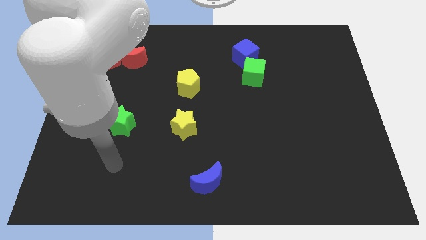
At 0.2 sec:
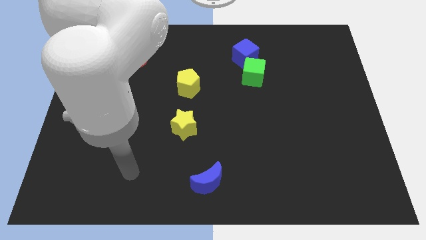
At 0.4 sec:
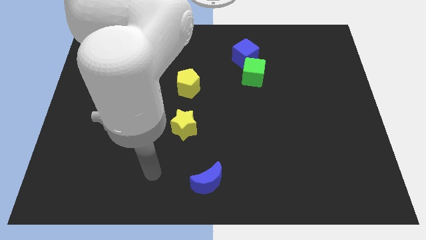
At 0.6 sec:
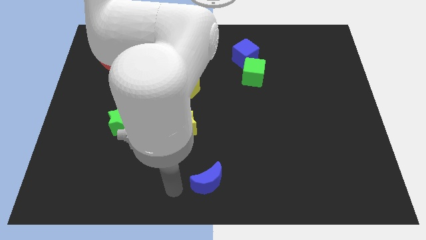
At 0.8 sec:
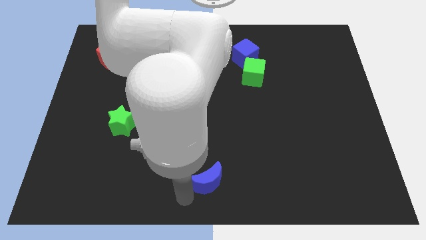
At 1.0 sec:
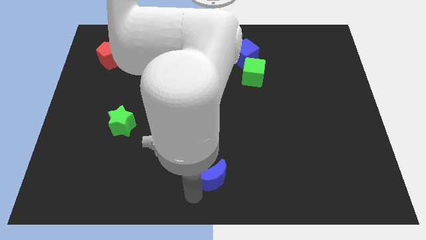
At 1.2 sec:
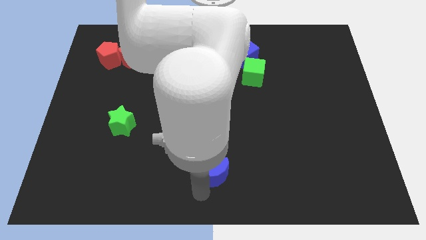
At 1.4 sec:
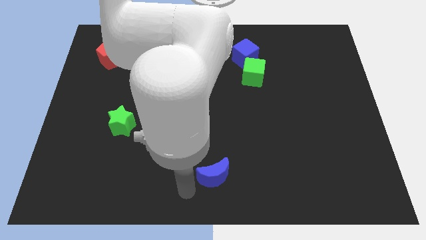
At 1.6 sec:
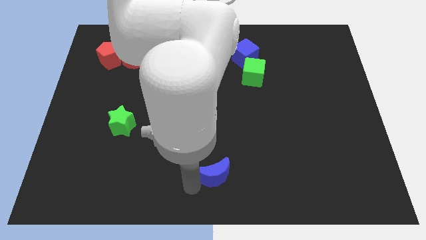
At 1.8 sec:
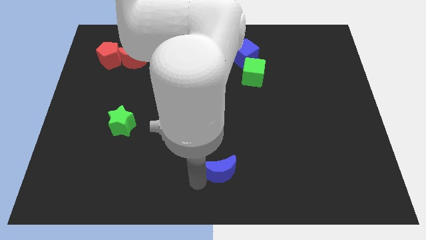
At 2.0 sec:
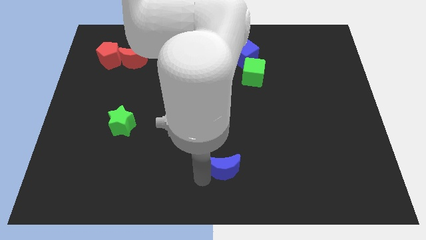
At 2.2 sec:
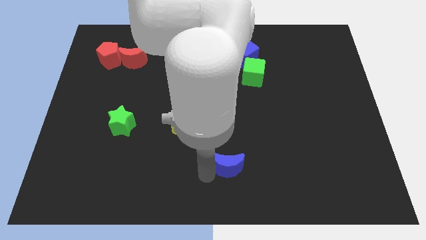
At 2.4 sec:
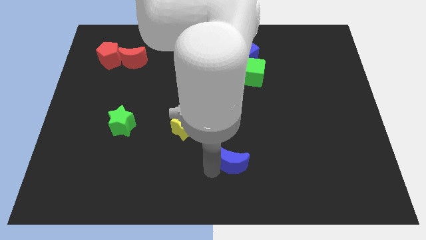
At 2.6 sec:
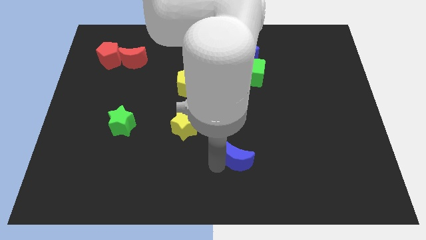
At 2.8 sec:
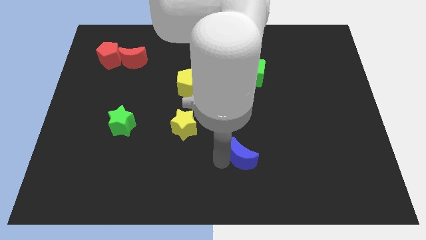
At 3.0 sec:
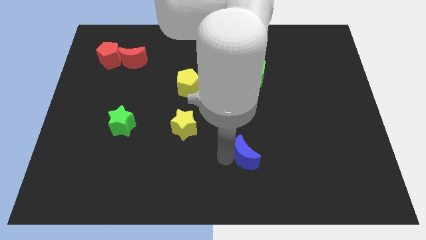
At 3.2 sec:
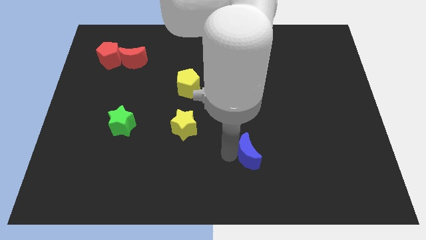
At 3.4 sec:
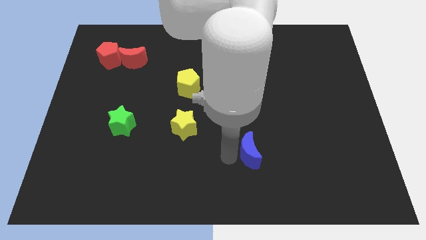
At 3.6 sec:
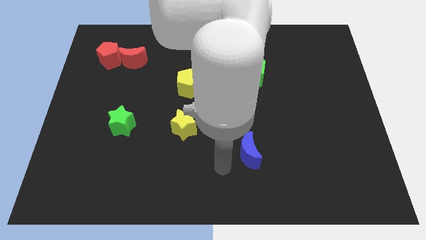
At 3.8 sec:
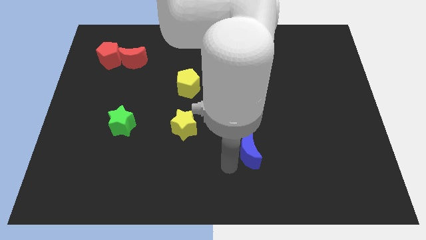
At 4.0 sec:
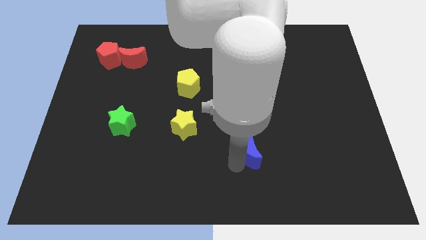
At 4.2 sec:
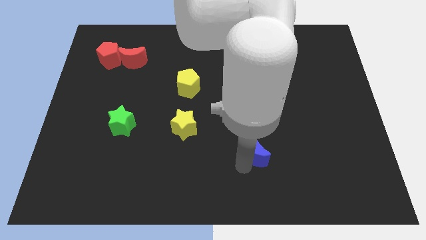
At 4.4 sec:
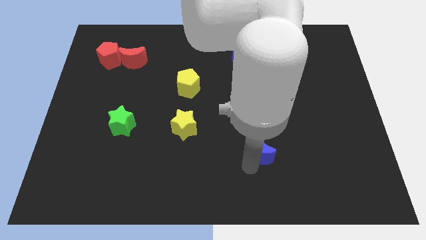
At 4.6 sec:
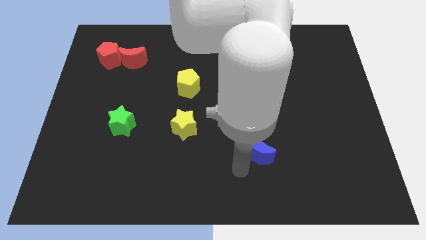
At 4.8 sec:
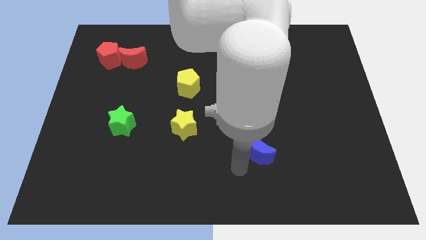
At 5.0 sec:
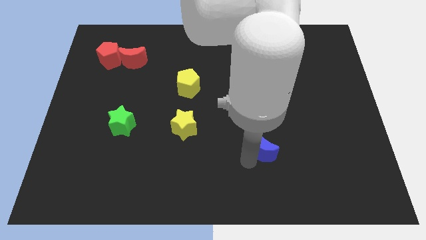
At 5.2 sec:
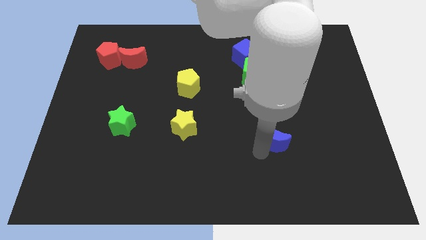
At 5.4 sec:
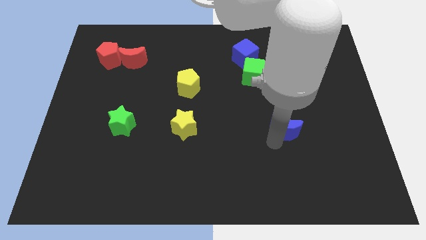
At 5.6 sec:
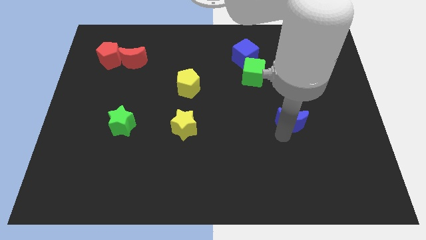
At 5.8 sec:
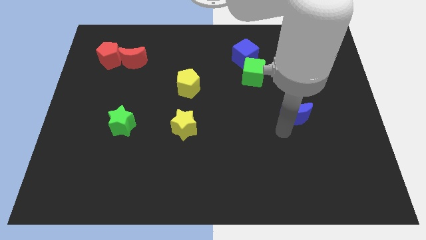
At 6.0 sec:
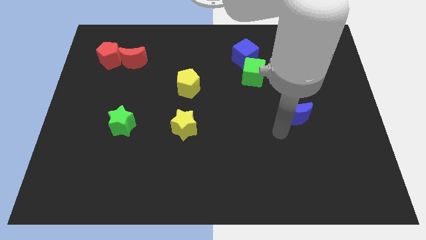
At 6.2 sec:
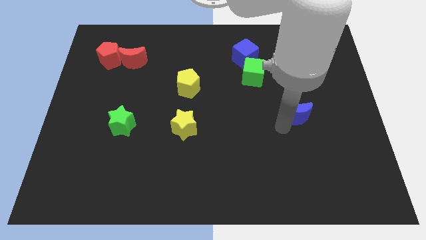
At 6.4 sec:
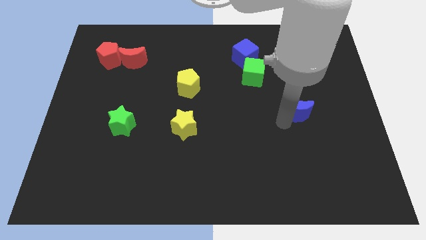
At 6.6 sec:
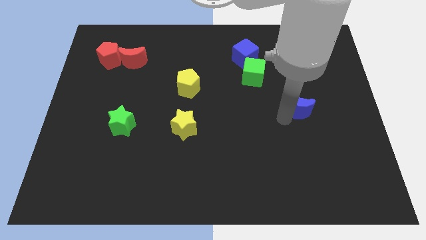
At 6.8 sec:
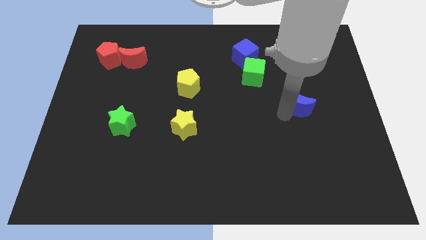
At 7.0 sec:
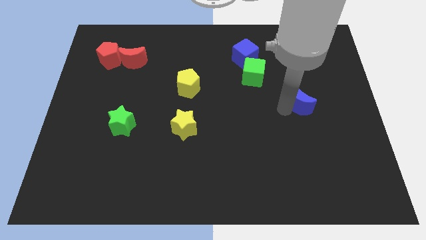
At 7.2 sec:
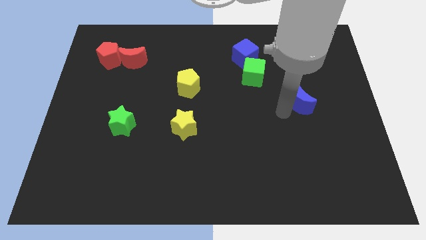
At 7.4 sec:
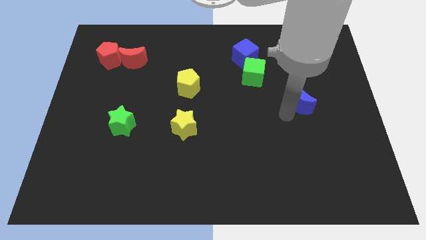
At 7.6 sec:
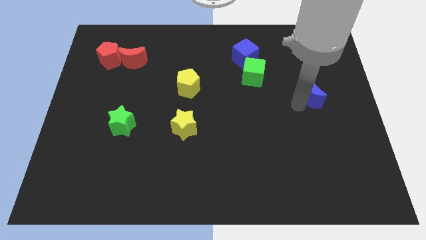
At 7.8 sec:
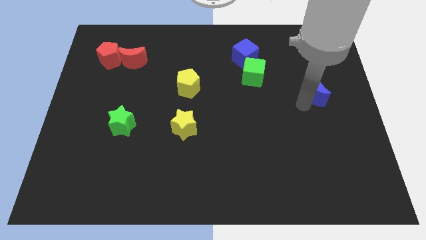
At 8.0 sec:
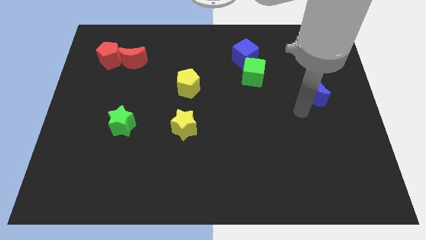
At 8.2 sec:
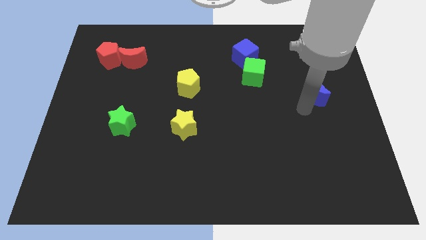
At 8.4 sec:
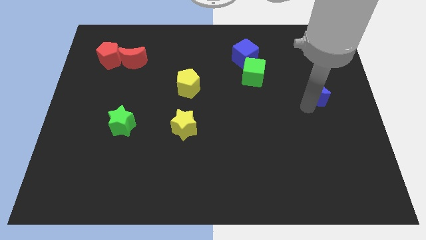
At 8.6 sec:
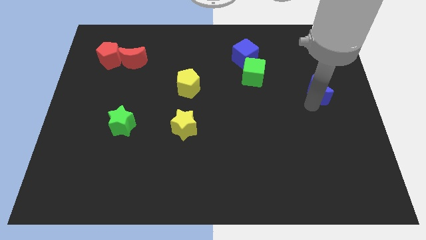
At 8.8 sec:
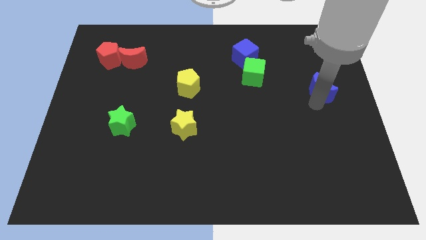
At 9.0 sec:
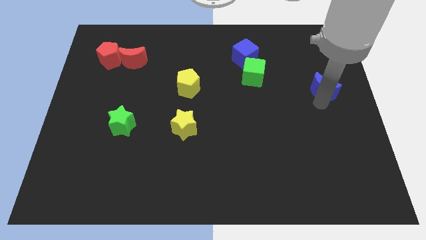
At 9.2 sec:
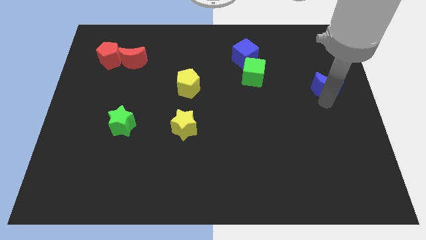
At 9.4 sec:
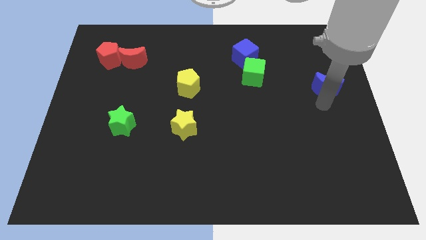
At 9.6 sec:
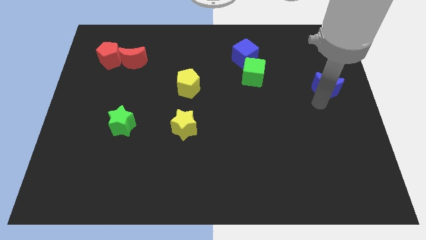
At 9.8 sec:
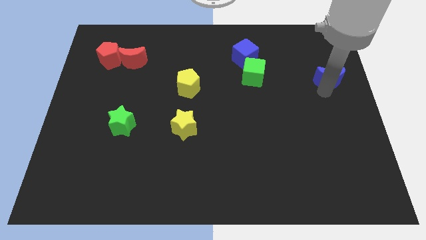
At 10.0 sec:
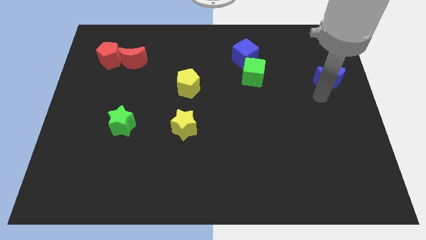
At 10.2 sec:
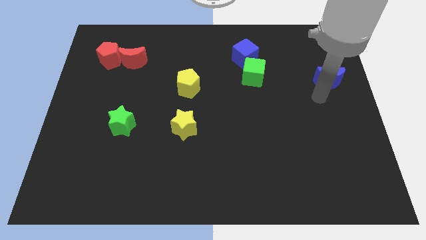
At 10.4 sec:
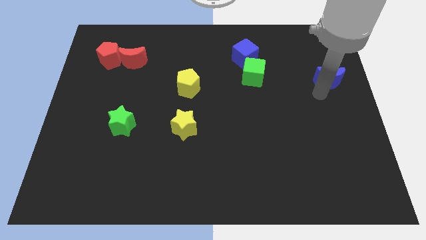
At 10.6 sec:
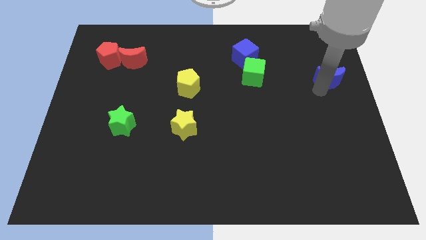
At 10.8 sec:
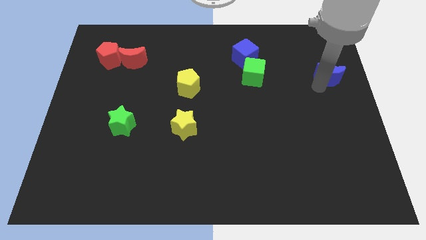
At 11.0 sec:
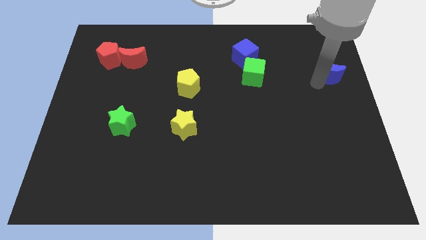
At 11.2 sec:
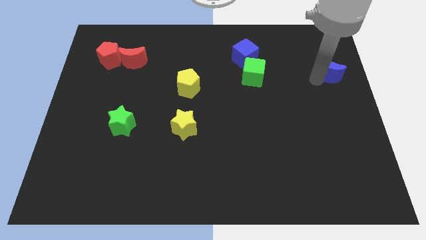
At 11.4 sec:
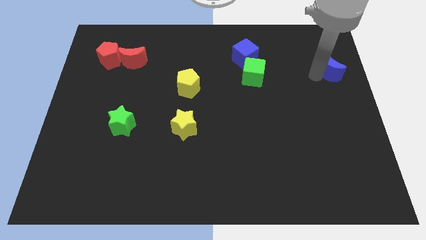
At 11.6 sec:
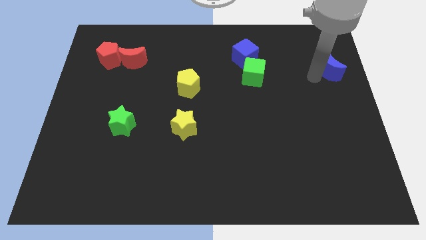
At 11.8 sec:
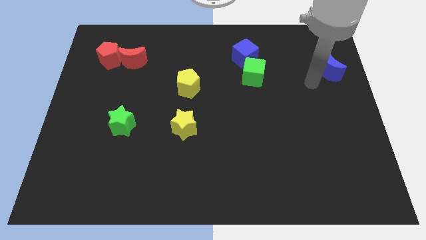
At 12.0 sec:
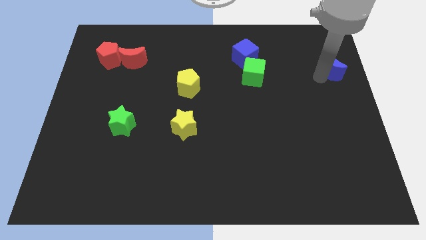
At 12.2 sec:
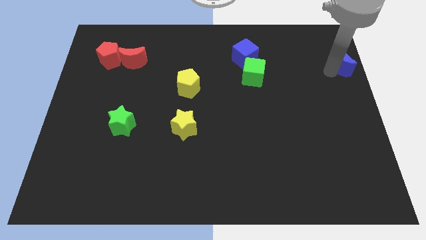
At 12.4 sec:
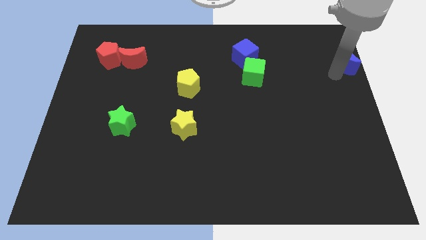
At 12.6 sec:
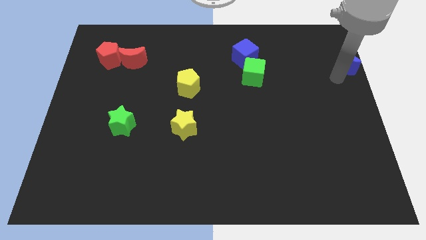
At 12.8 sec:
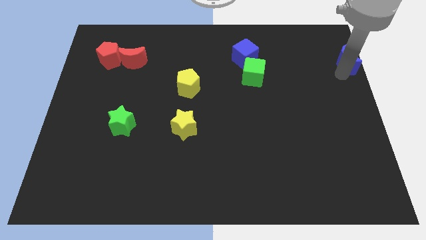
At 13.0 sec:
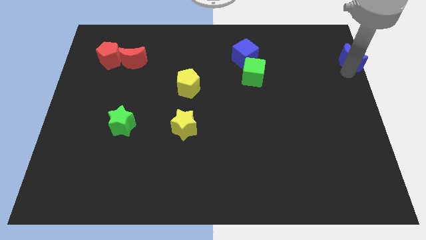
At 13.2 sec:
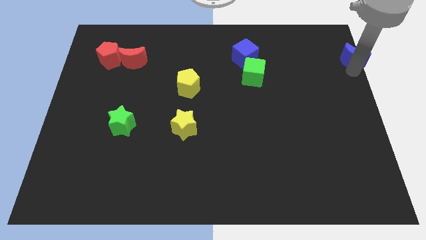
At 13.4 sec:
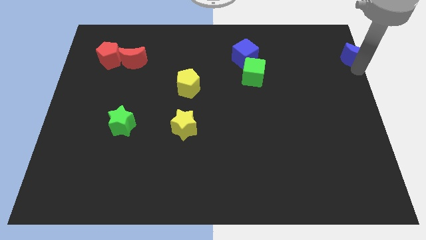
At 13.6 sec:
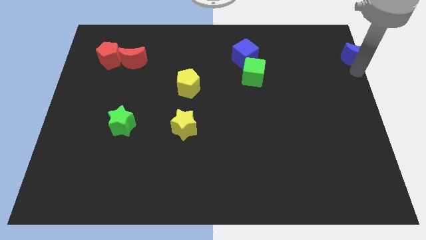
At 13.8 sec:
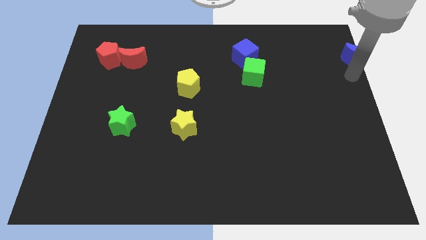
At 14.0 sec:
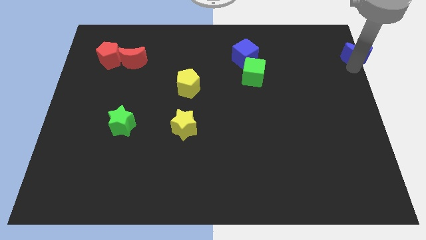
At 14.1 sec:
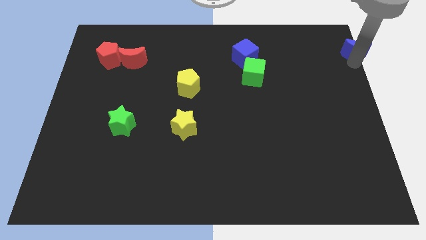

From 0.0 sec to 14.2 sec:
move the blue moon to the top right of the board

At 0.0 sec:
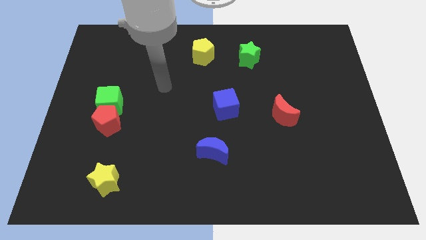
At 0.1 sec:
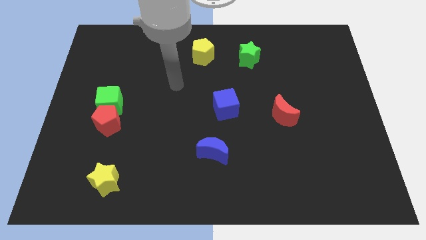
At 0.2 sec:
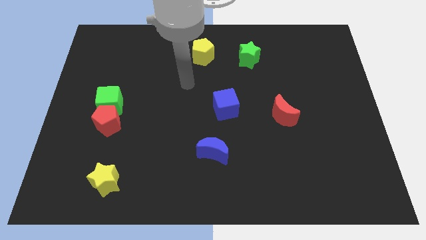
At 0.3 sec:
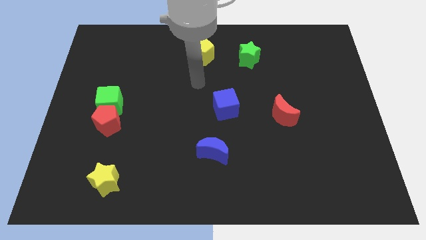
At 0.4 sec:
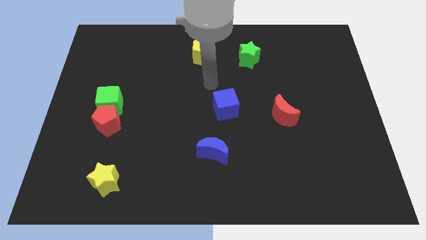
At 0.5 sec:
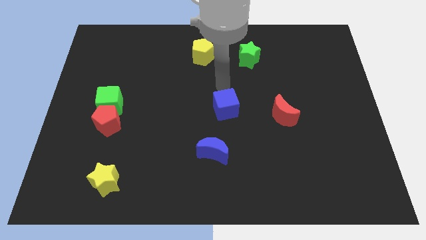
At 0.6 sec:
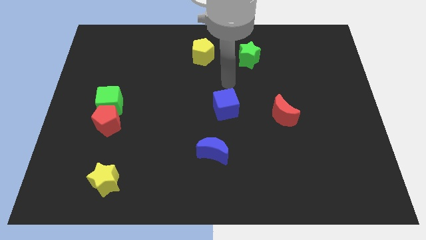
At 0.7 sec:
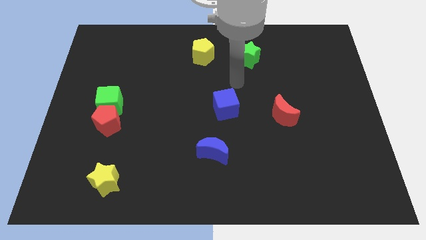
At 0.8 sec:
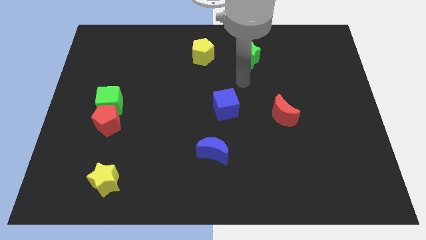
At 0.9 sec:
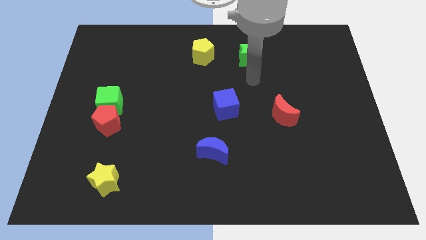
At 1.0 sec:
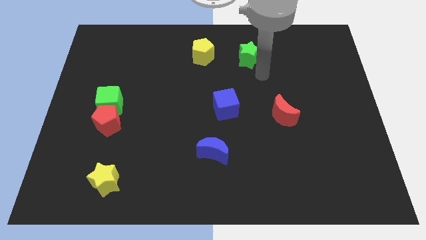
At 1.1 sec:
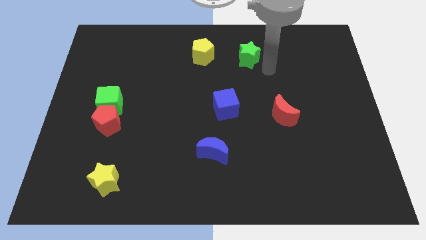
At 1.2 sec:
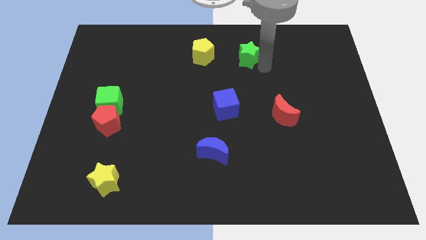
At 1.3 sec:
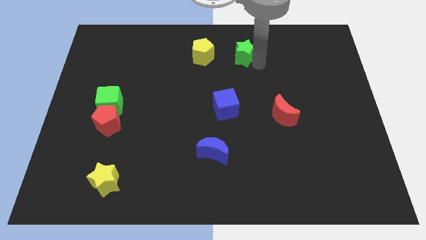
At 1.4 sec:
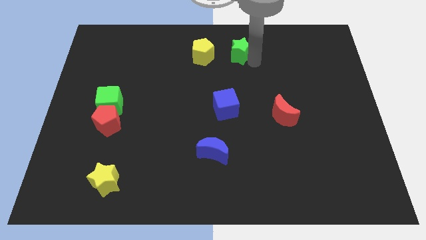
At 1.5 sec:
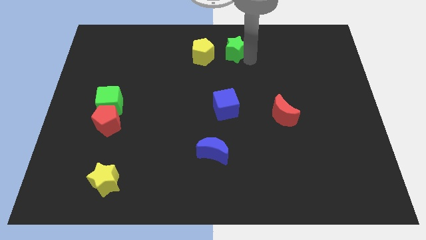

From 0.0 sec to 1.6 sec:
move the green star to the top
